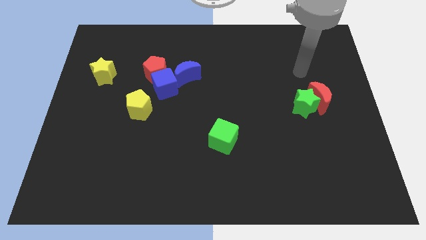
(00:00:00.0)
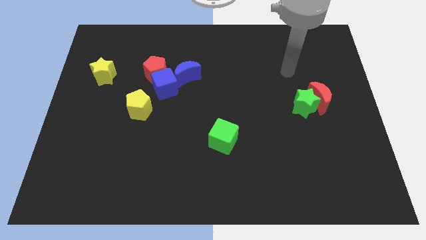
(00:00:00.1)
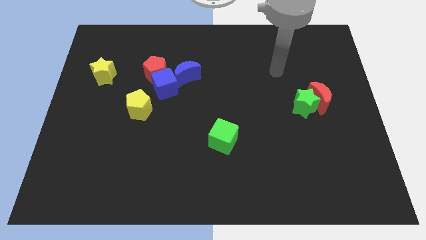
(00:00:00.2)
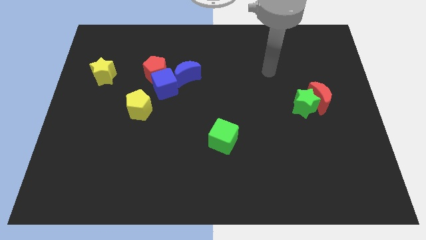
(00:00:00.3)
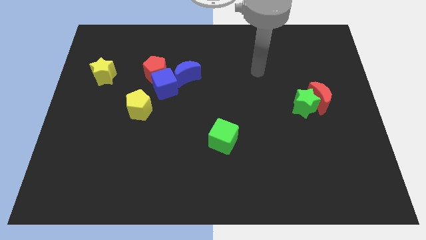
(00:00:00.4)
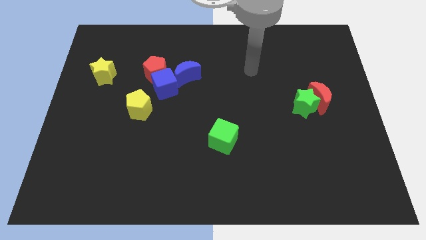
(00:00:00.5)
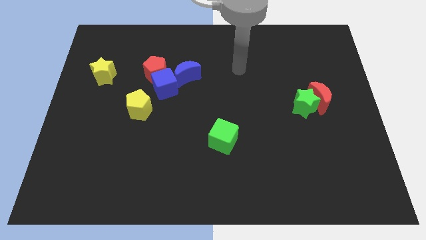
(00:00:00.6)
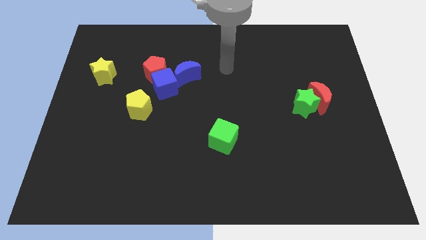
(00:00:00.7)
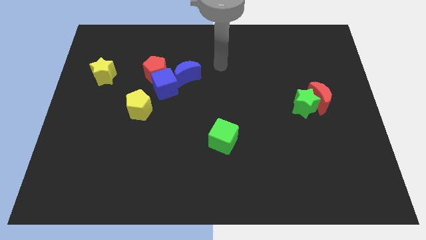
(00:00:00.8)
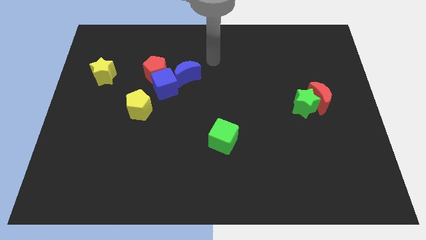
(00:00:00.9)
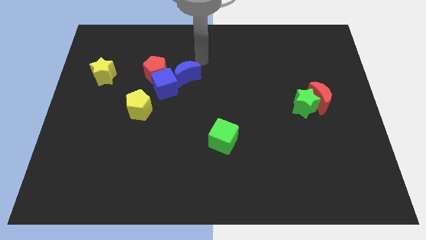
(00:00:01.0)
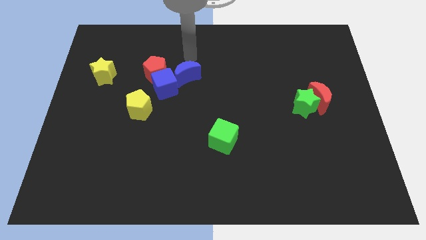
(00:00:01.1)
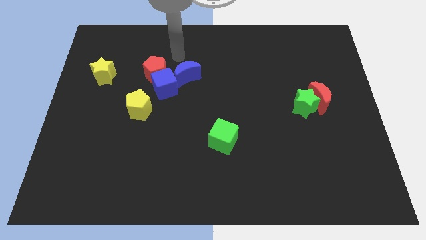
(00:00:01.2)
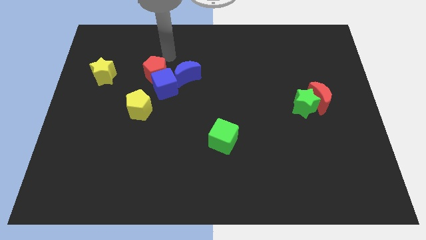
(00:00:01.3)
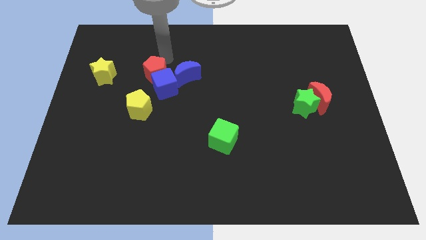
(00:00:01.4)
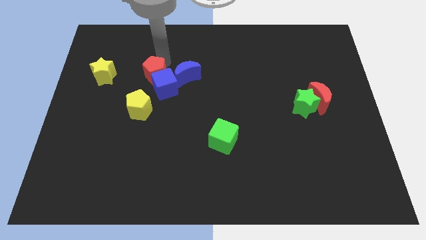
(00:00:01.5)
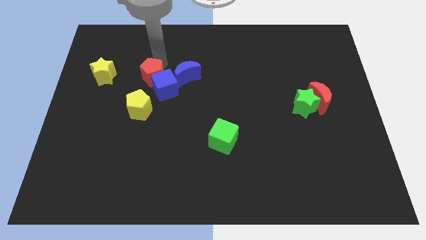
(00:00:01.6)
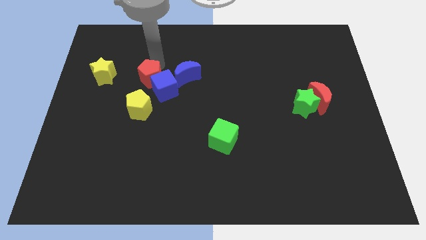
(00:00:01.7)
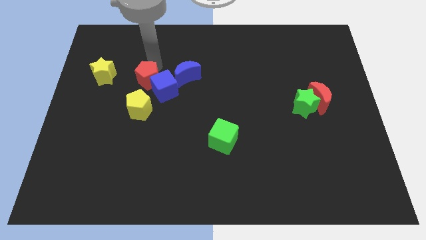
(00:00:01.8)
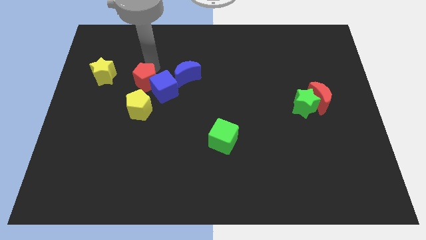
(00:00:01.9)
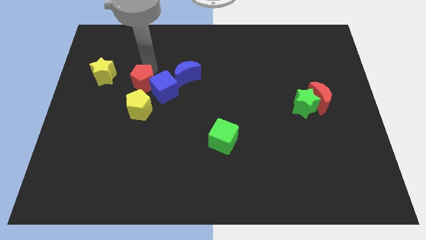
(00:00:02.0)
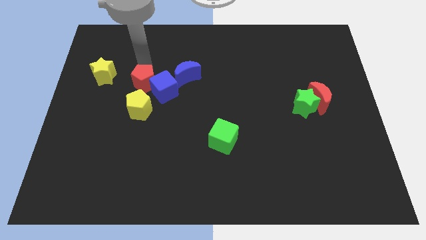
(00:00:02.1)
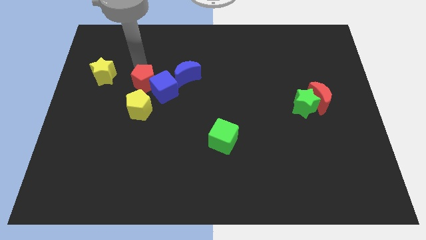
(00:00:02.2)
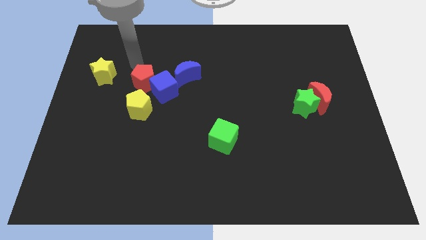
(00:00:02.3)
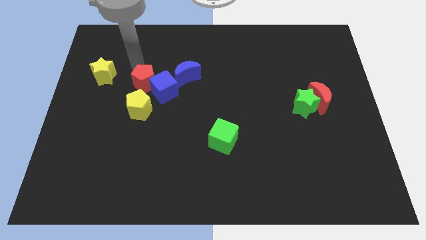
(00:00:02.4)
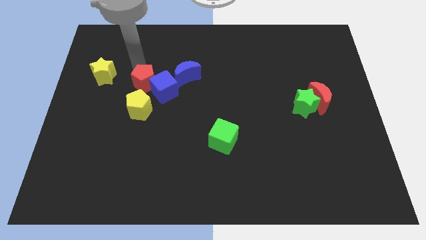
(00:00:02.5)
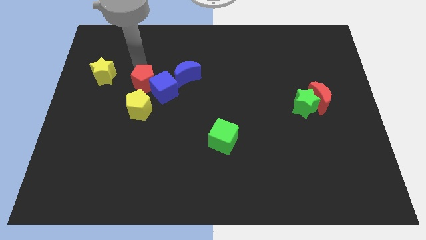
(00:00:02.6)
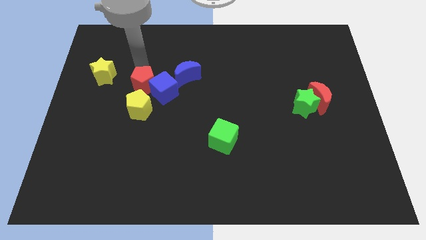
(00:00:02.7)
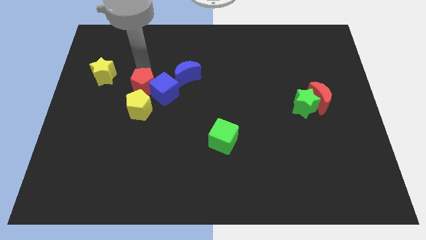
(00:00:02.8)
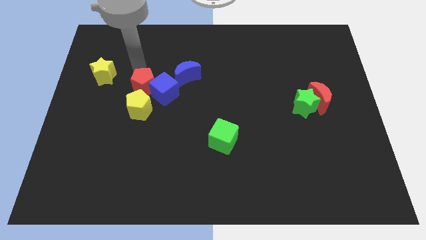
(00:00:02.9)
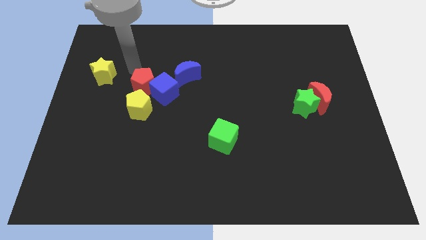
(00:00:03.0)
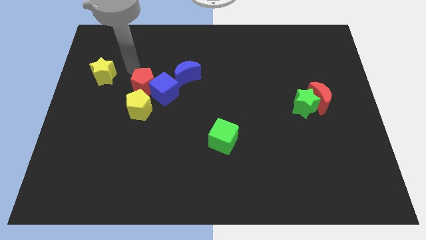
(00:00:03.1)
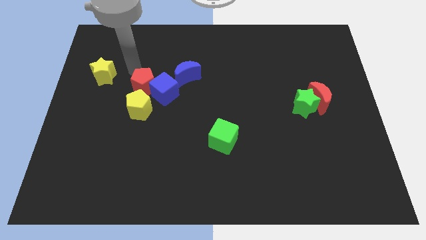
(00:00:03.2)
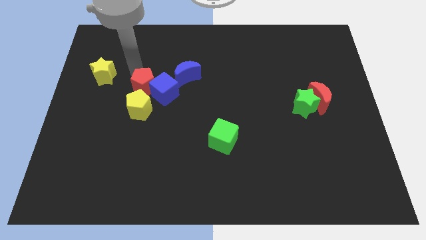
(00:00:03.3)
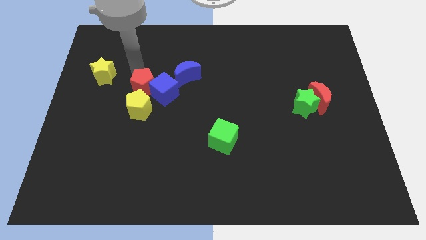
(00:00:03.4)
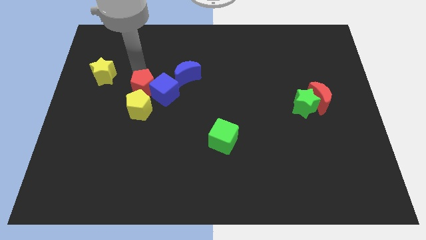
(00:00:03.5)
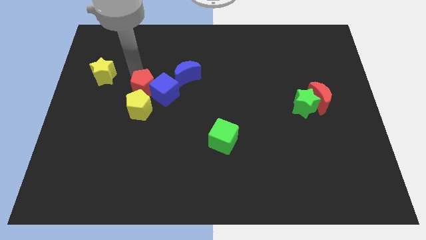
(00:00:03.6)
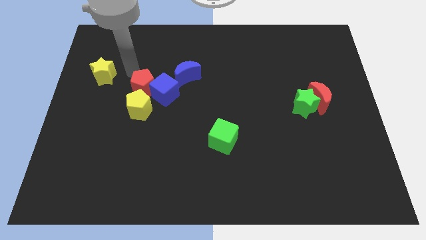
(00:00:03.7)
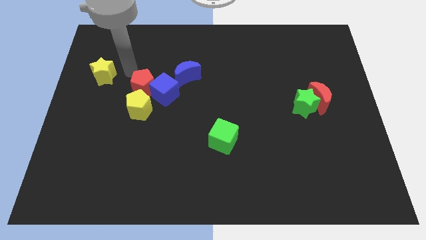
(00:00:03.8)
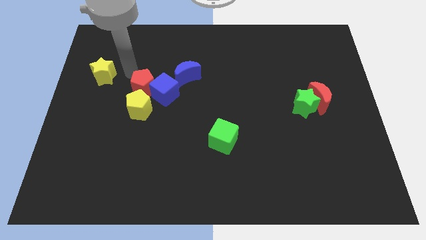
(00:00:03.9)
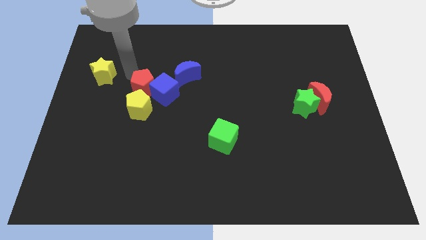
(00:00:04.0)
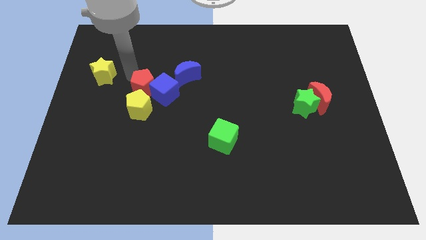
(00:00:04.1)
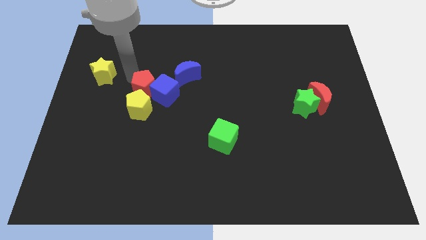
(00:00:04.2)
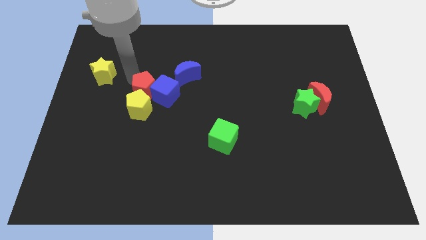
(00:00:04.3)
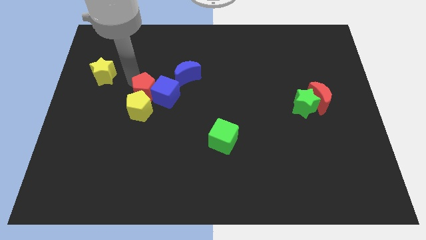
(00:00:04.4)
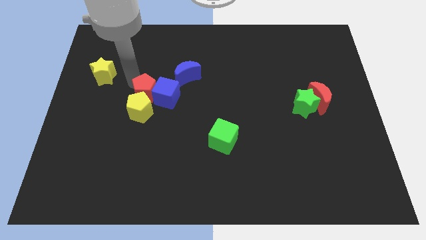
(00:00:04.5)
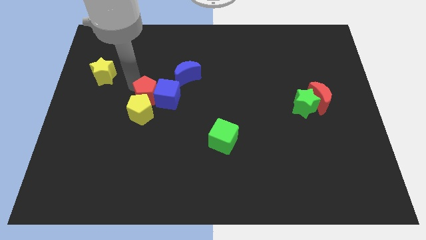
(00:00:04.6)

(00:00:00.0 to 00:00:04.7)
push the red pentagon a little bit downwards

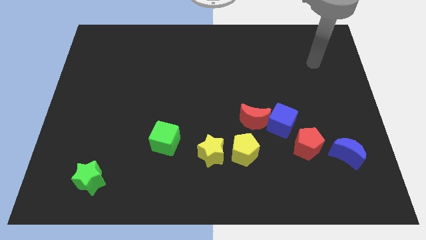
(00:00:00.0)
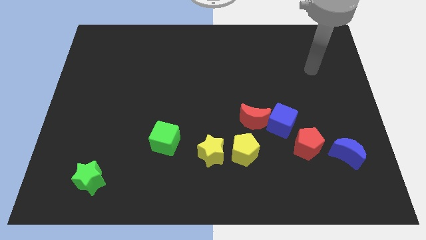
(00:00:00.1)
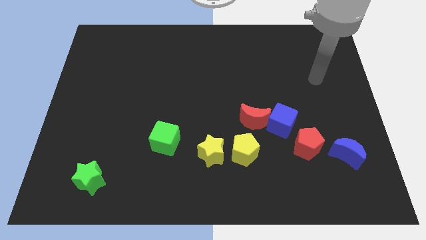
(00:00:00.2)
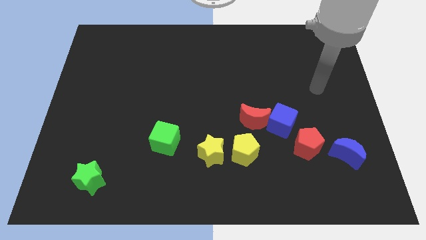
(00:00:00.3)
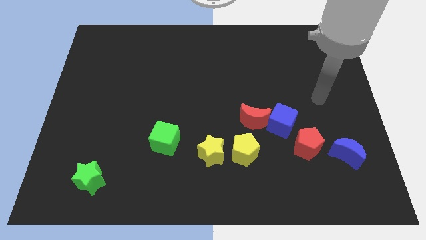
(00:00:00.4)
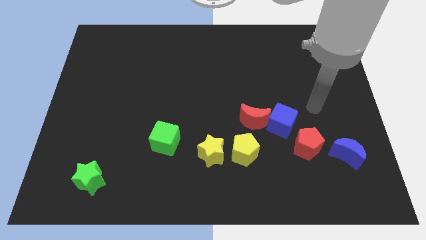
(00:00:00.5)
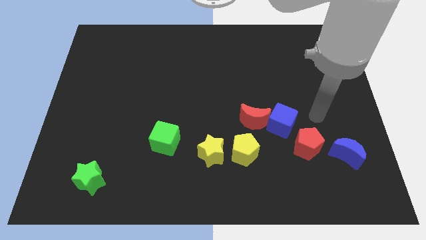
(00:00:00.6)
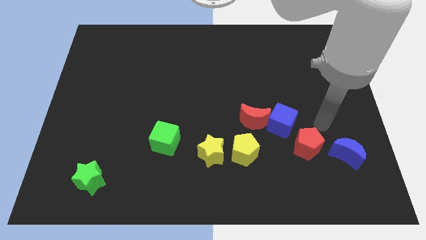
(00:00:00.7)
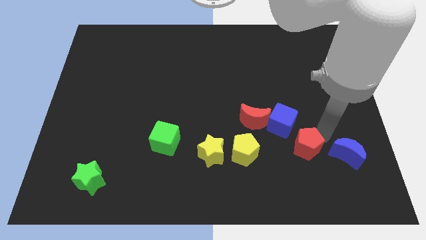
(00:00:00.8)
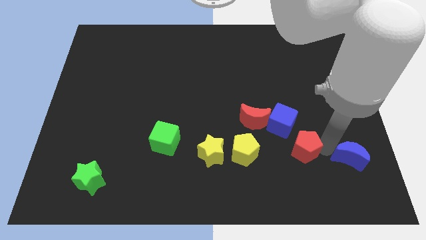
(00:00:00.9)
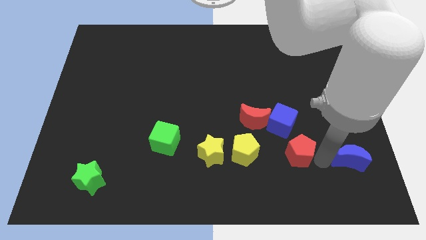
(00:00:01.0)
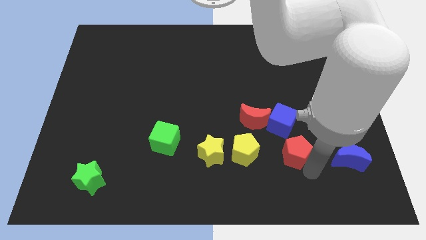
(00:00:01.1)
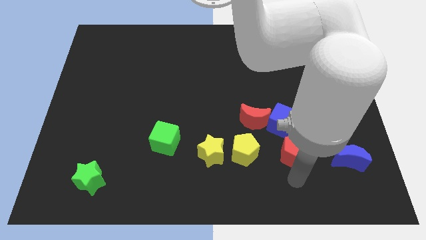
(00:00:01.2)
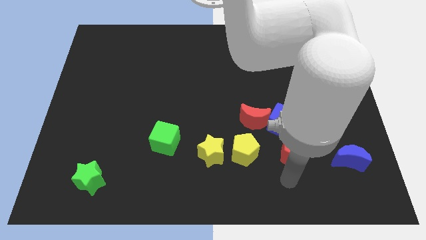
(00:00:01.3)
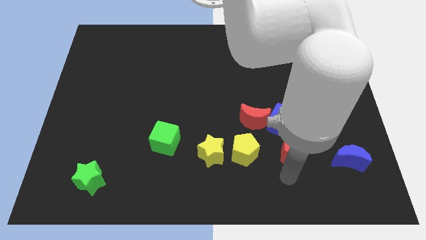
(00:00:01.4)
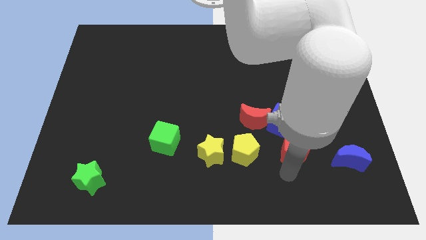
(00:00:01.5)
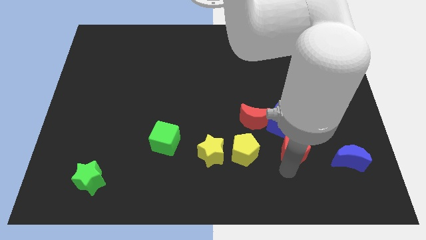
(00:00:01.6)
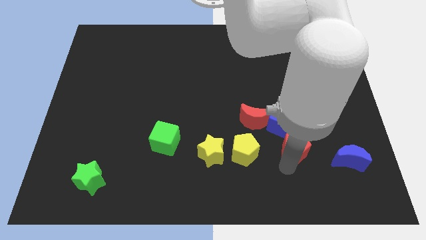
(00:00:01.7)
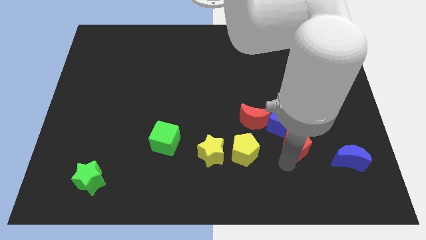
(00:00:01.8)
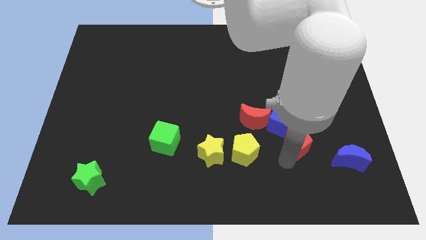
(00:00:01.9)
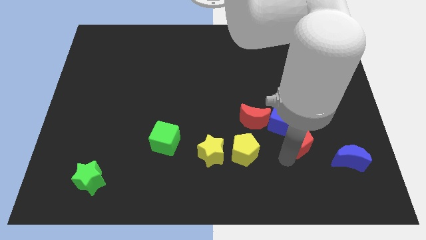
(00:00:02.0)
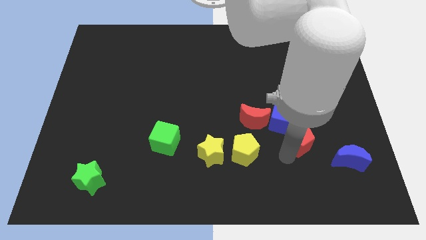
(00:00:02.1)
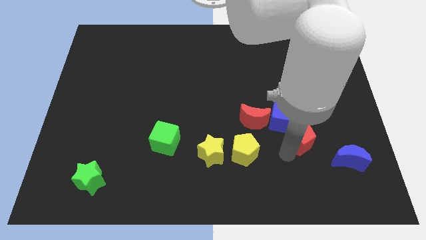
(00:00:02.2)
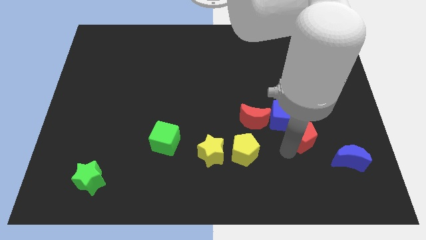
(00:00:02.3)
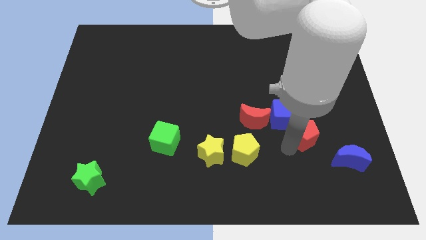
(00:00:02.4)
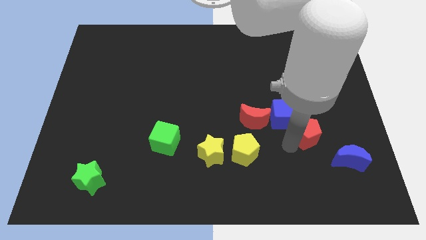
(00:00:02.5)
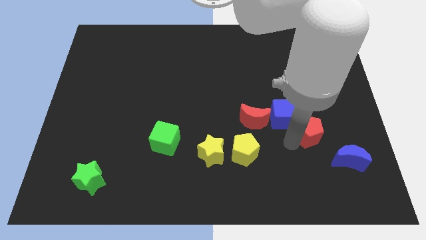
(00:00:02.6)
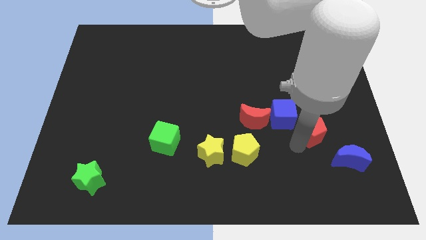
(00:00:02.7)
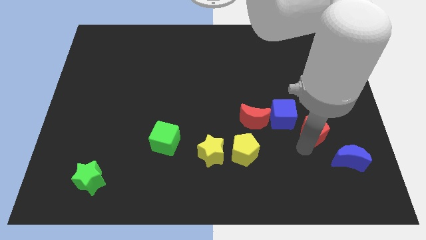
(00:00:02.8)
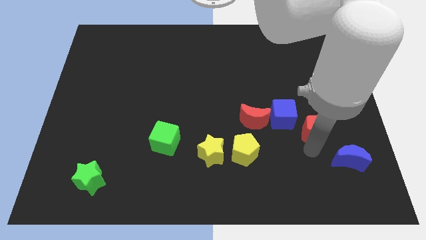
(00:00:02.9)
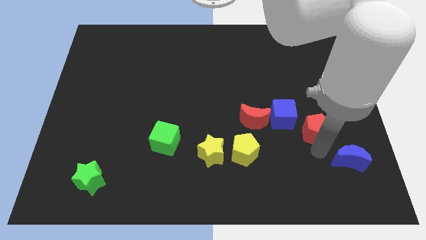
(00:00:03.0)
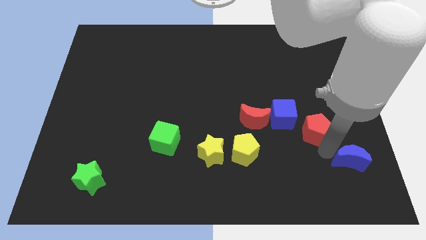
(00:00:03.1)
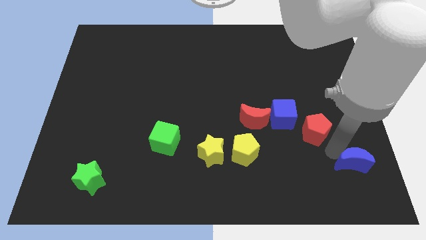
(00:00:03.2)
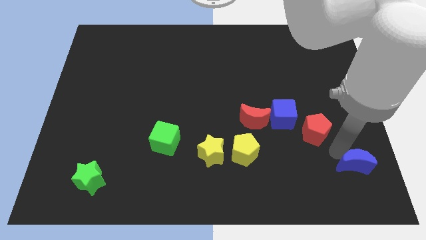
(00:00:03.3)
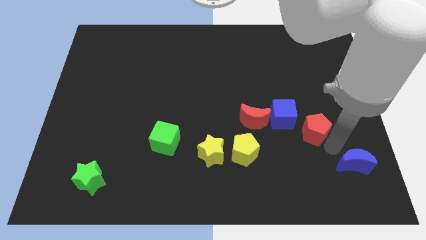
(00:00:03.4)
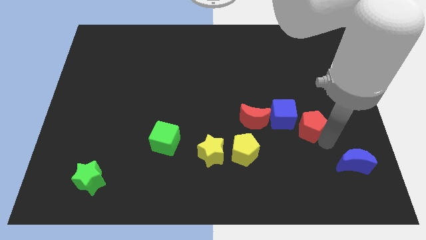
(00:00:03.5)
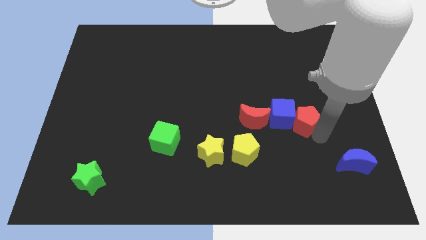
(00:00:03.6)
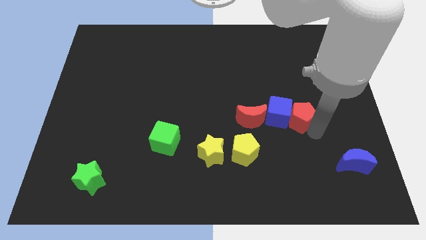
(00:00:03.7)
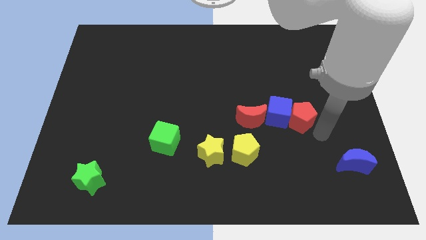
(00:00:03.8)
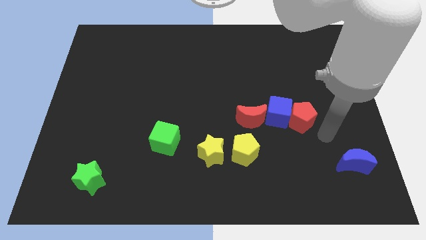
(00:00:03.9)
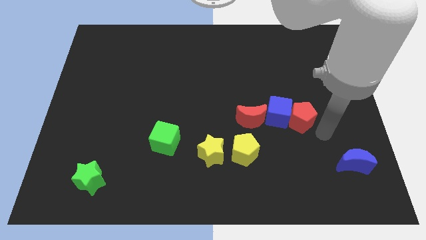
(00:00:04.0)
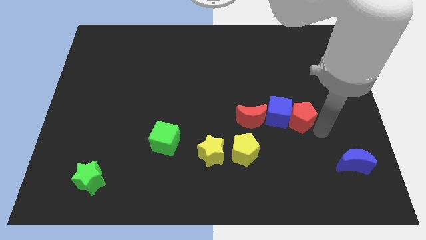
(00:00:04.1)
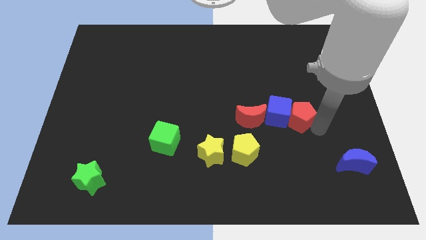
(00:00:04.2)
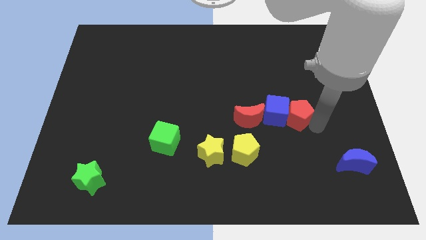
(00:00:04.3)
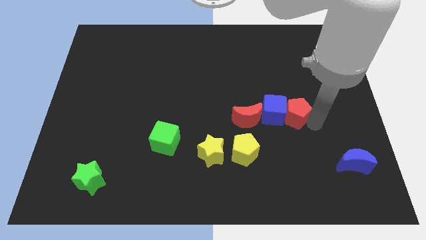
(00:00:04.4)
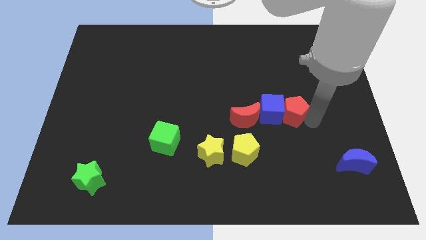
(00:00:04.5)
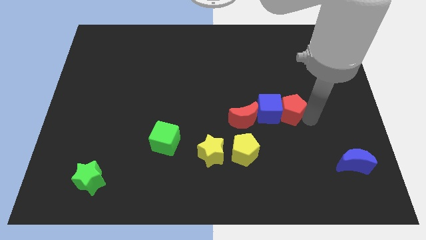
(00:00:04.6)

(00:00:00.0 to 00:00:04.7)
push the red pentagon upwards and left diagonally a little
